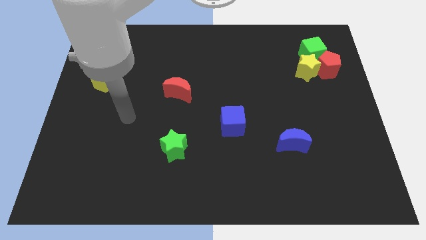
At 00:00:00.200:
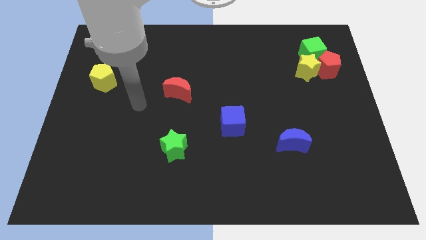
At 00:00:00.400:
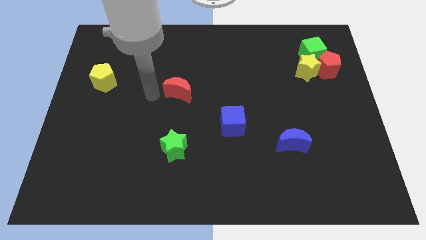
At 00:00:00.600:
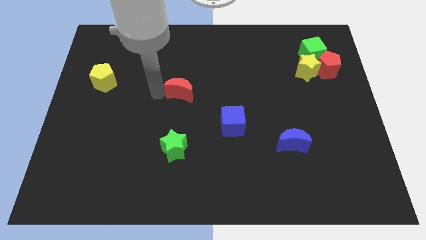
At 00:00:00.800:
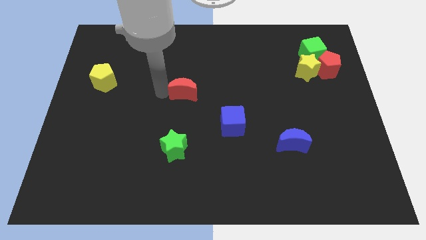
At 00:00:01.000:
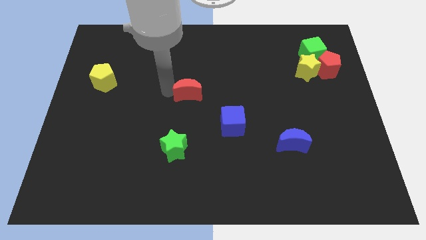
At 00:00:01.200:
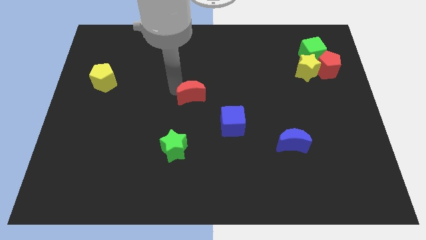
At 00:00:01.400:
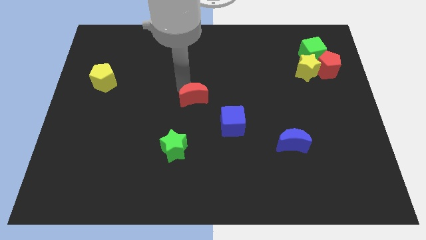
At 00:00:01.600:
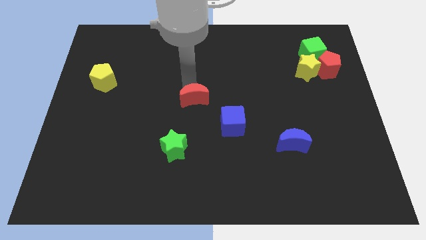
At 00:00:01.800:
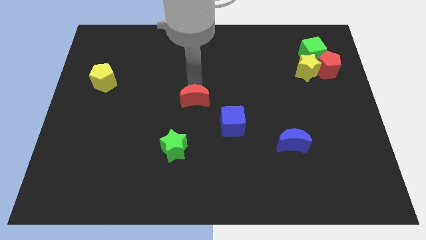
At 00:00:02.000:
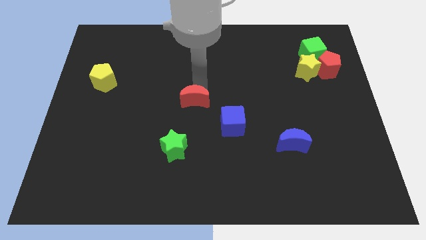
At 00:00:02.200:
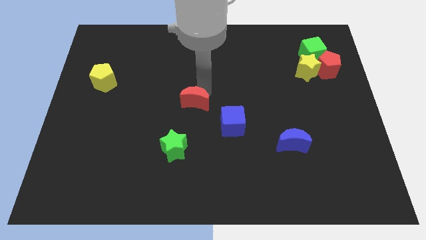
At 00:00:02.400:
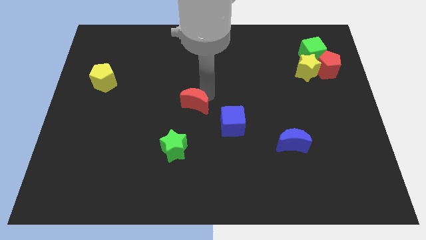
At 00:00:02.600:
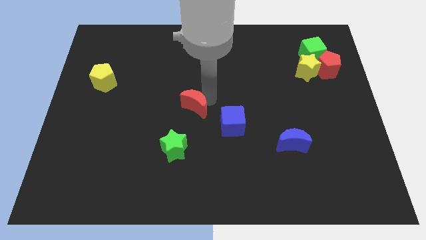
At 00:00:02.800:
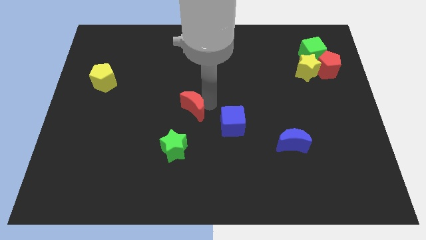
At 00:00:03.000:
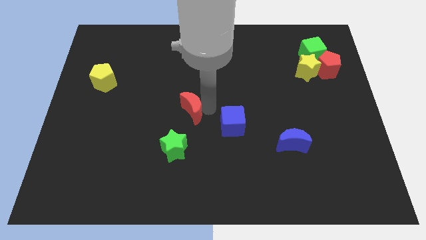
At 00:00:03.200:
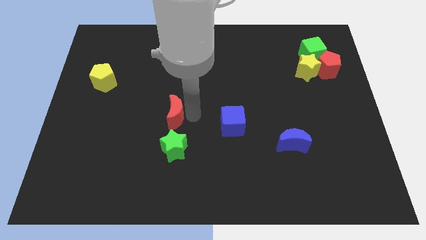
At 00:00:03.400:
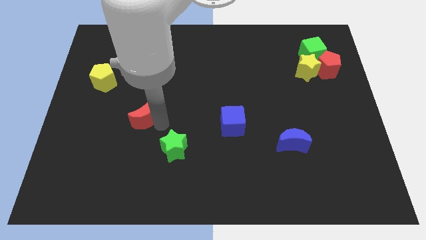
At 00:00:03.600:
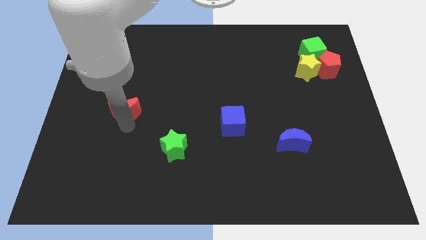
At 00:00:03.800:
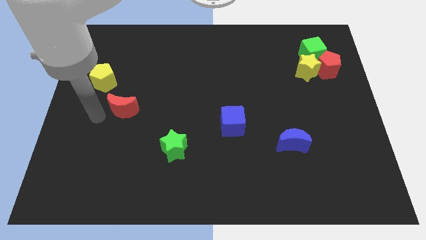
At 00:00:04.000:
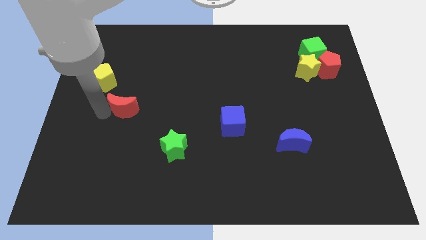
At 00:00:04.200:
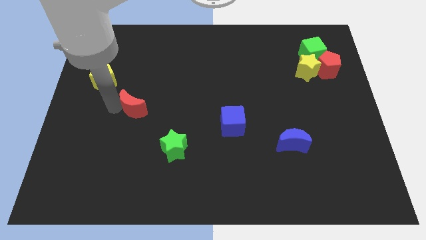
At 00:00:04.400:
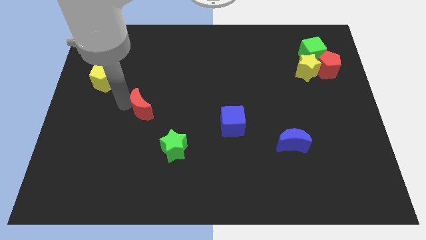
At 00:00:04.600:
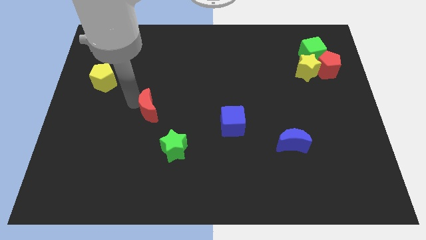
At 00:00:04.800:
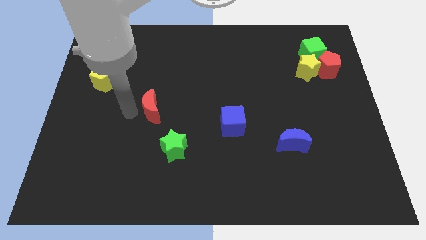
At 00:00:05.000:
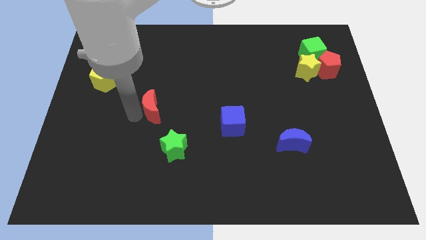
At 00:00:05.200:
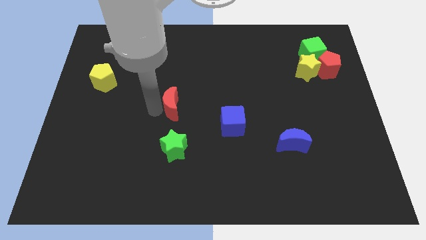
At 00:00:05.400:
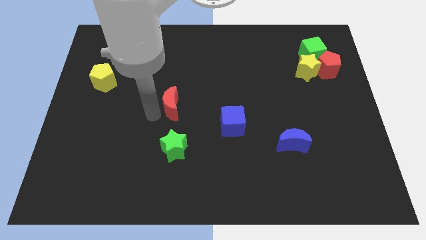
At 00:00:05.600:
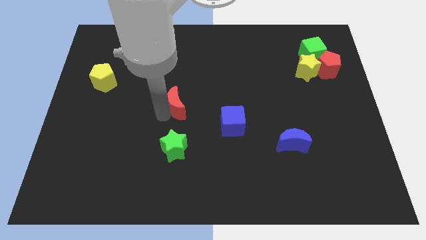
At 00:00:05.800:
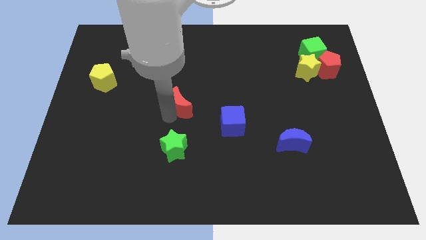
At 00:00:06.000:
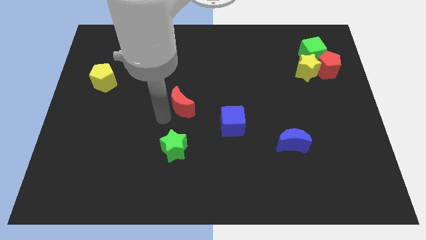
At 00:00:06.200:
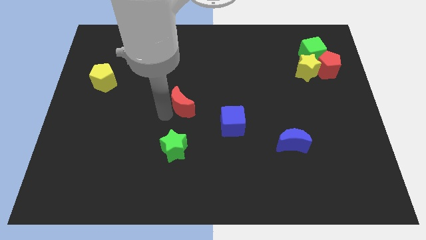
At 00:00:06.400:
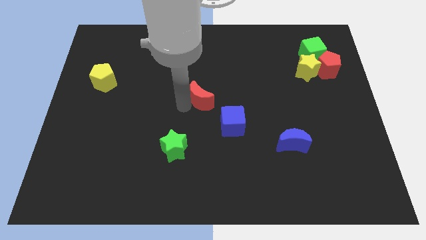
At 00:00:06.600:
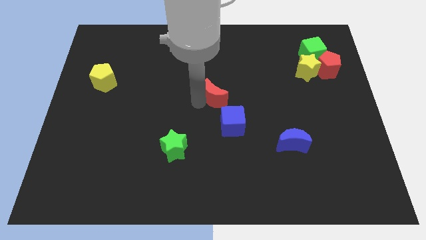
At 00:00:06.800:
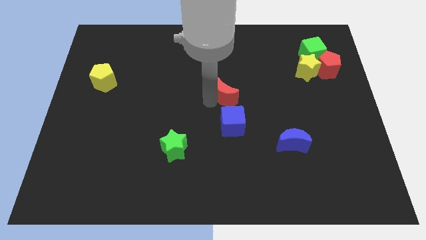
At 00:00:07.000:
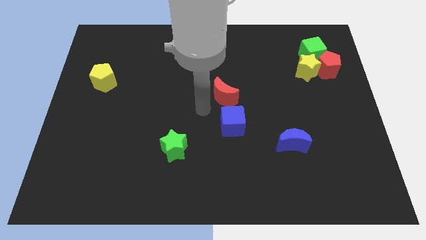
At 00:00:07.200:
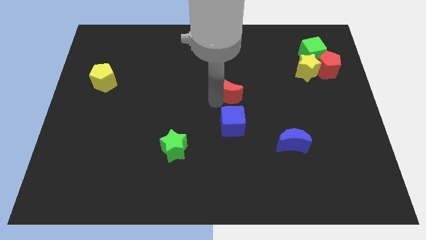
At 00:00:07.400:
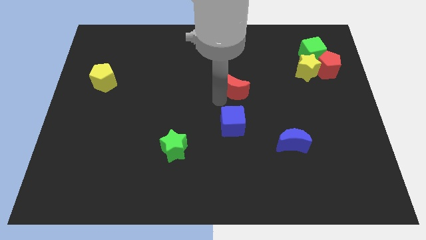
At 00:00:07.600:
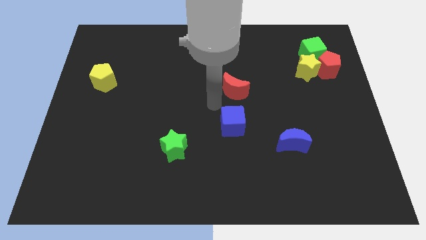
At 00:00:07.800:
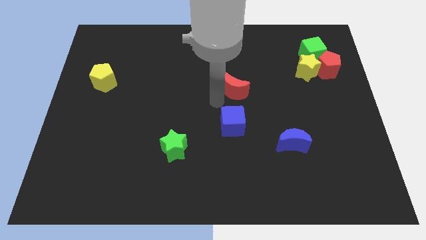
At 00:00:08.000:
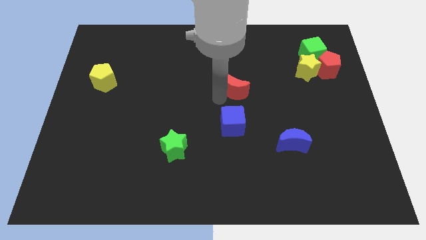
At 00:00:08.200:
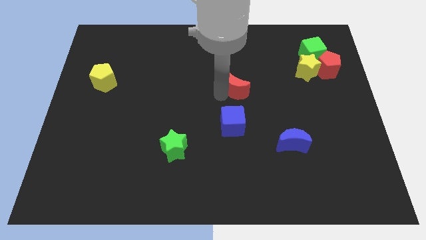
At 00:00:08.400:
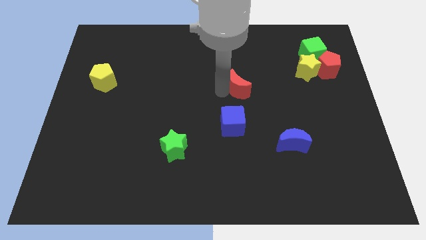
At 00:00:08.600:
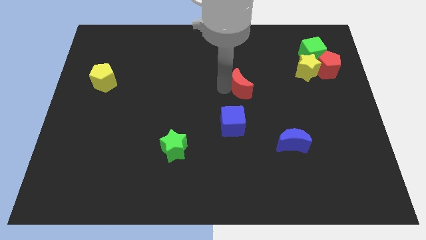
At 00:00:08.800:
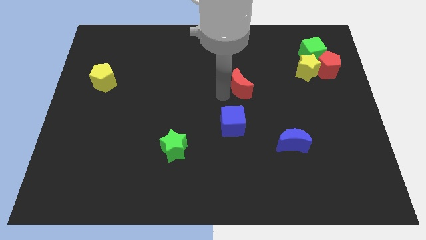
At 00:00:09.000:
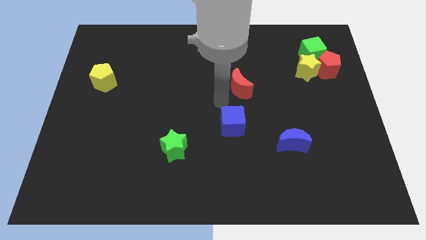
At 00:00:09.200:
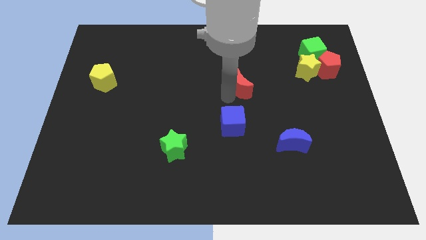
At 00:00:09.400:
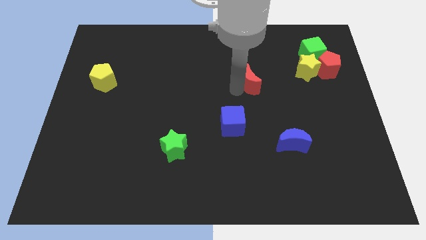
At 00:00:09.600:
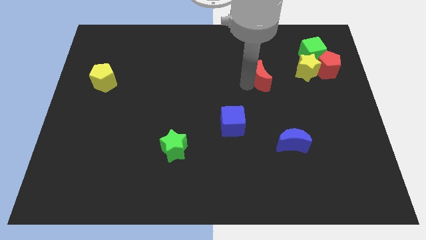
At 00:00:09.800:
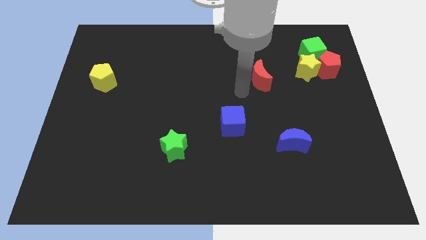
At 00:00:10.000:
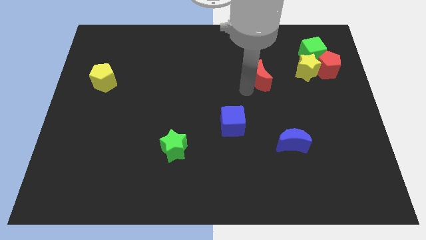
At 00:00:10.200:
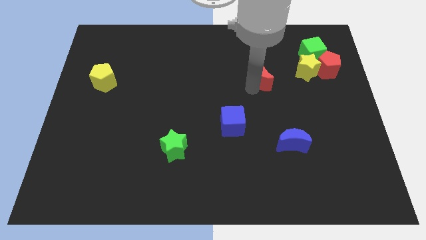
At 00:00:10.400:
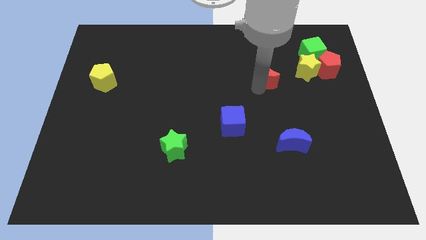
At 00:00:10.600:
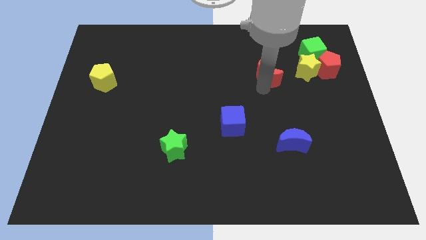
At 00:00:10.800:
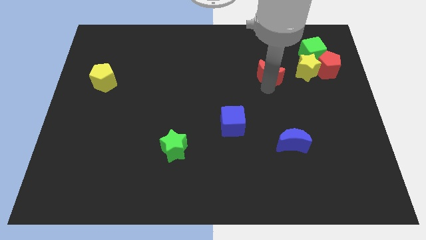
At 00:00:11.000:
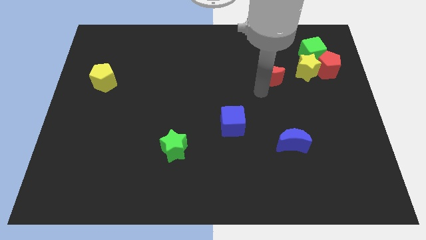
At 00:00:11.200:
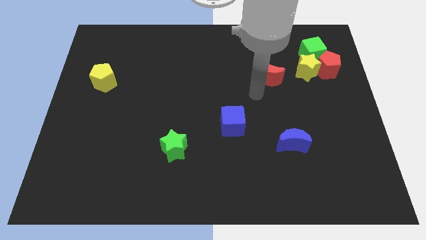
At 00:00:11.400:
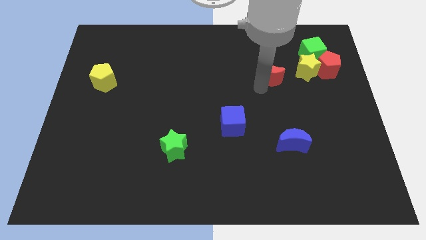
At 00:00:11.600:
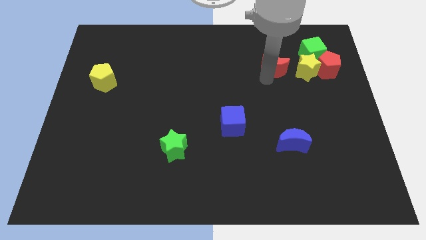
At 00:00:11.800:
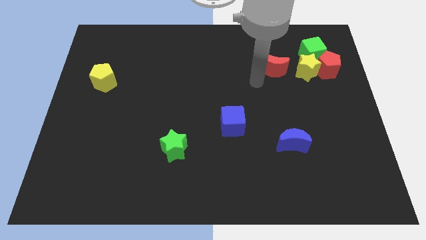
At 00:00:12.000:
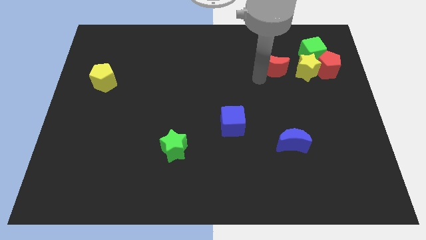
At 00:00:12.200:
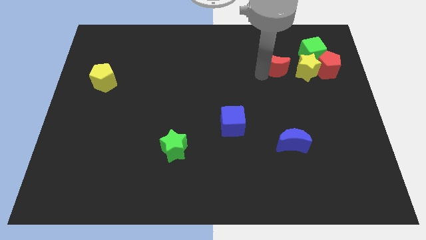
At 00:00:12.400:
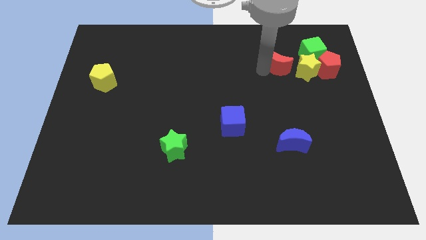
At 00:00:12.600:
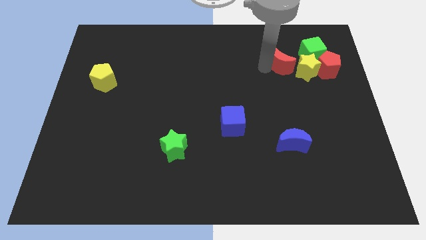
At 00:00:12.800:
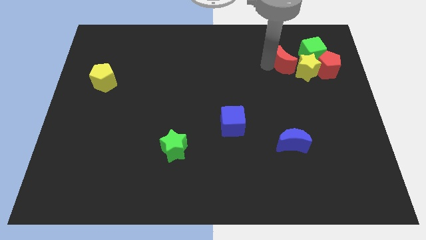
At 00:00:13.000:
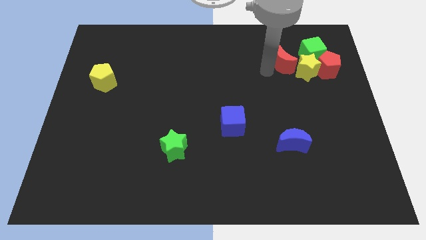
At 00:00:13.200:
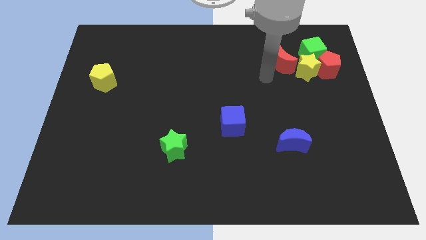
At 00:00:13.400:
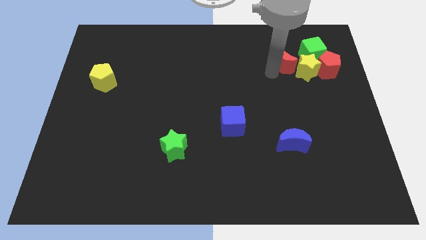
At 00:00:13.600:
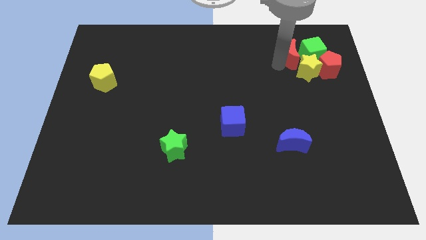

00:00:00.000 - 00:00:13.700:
slide the red moon to the green cube

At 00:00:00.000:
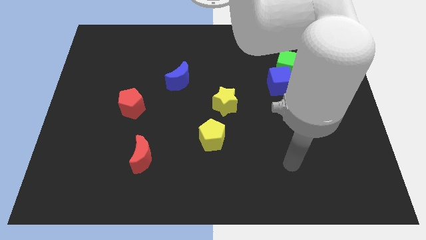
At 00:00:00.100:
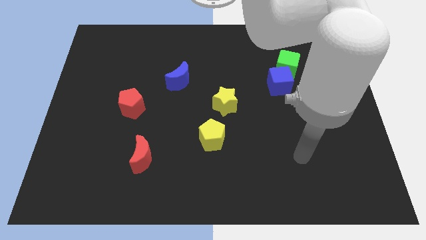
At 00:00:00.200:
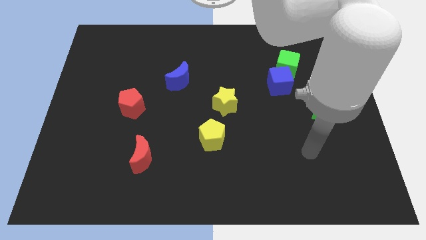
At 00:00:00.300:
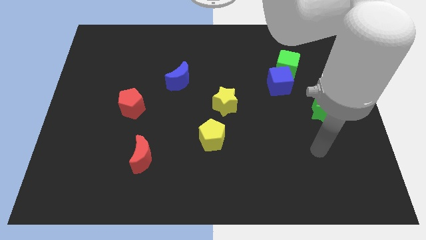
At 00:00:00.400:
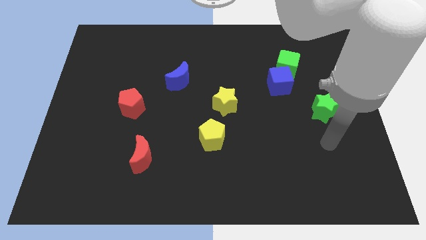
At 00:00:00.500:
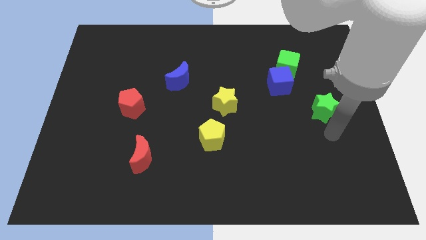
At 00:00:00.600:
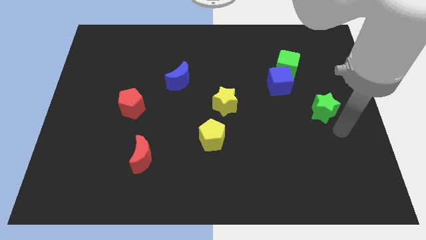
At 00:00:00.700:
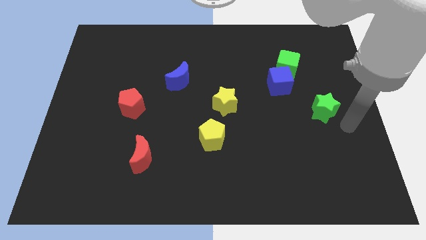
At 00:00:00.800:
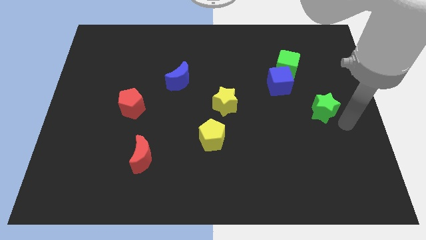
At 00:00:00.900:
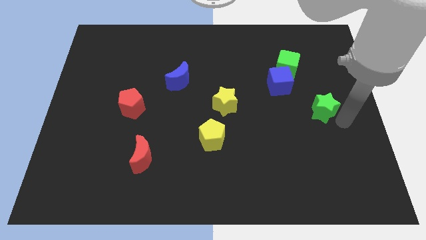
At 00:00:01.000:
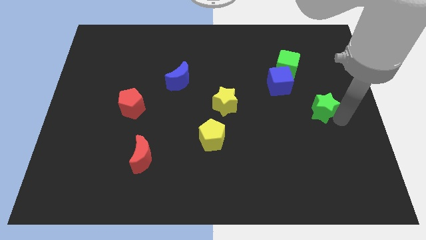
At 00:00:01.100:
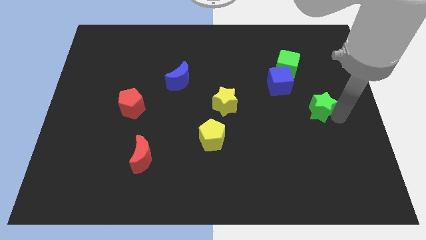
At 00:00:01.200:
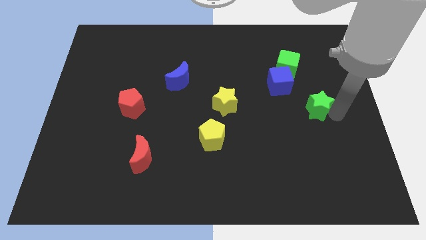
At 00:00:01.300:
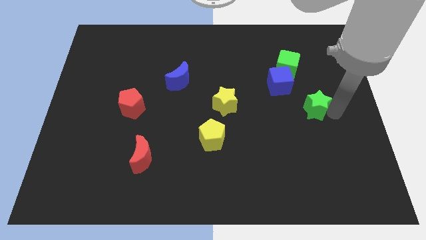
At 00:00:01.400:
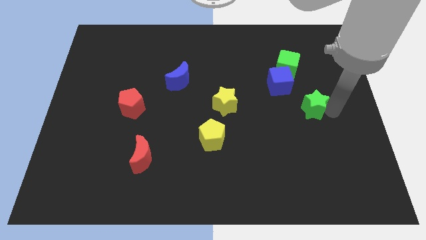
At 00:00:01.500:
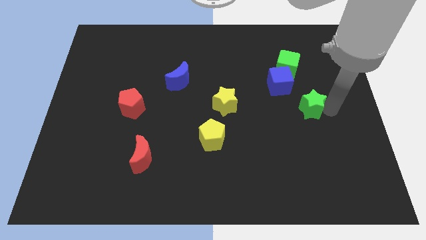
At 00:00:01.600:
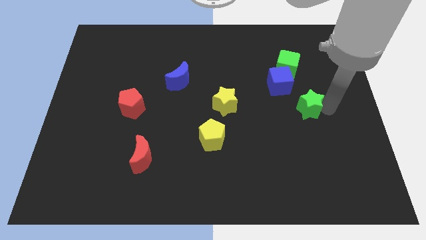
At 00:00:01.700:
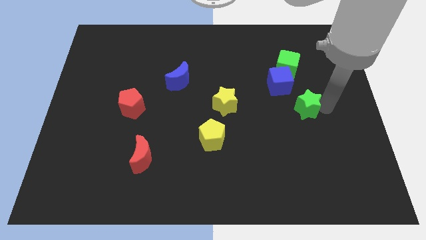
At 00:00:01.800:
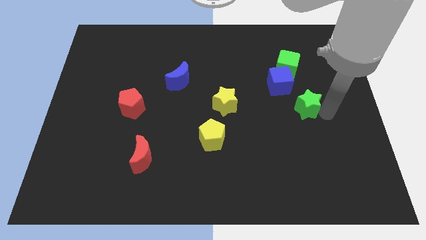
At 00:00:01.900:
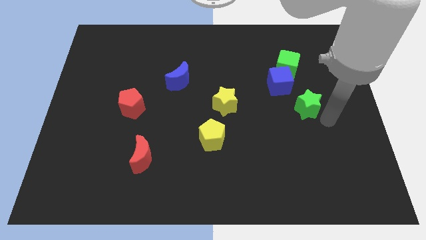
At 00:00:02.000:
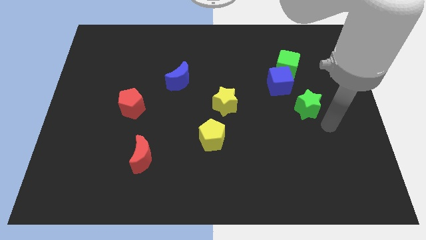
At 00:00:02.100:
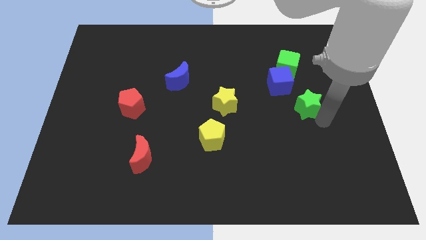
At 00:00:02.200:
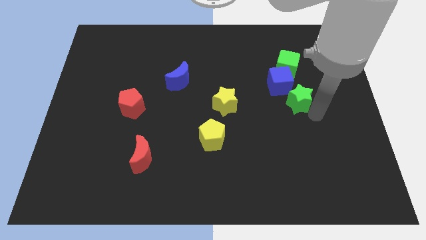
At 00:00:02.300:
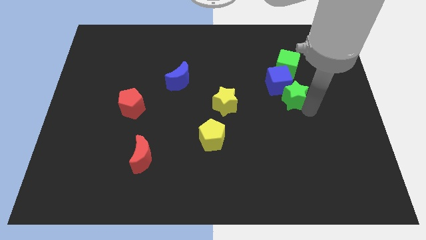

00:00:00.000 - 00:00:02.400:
move the green star close to the blue cube
